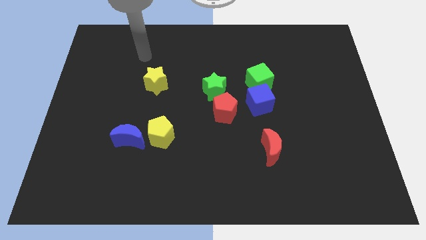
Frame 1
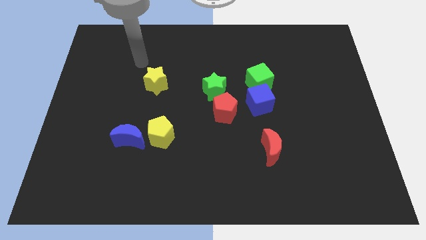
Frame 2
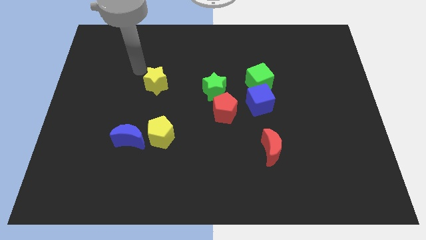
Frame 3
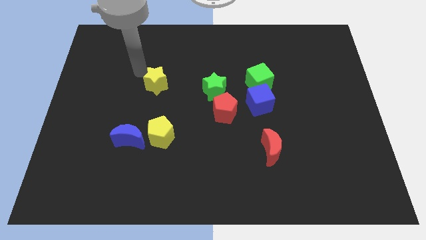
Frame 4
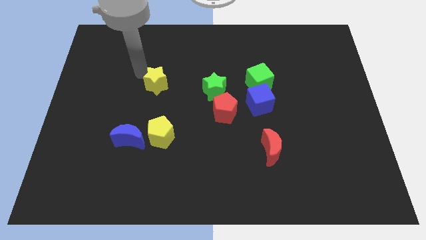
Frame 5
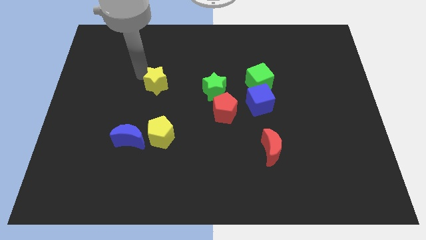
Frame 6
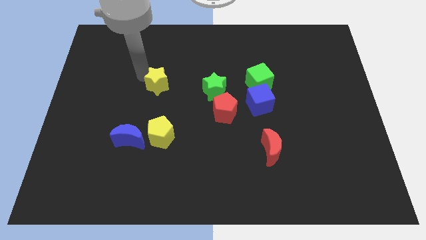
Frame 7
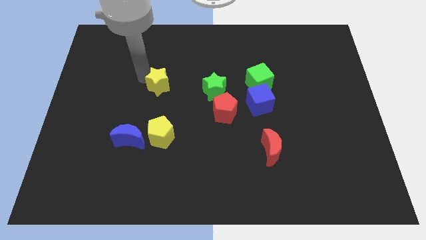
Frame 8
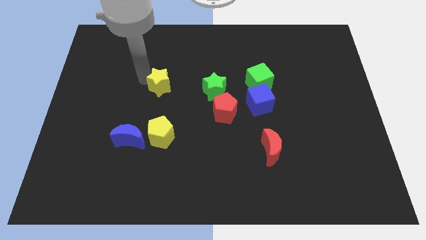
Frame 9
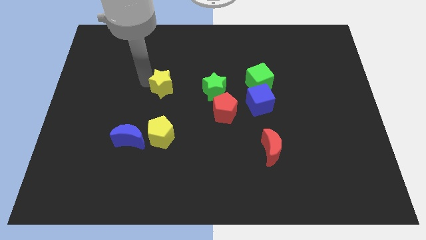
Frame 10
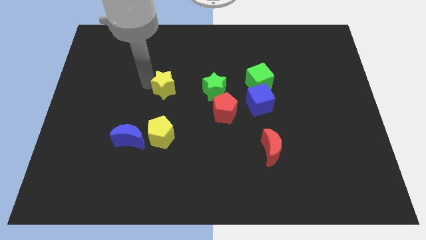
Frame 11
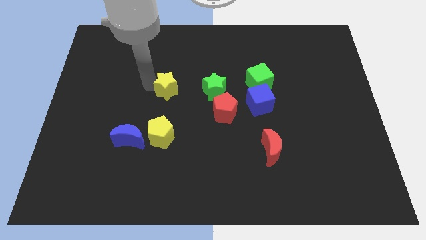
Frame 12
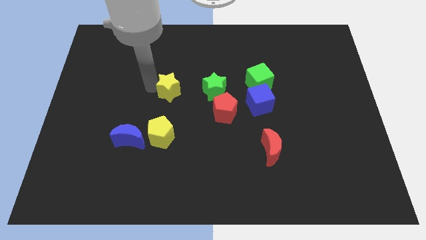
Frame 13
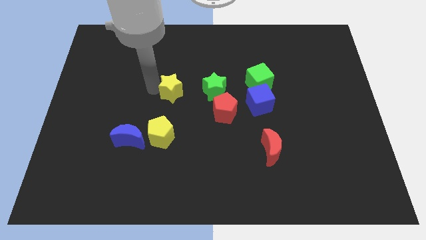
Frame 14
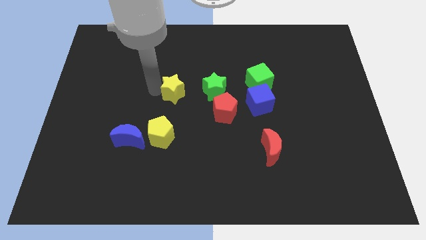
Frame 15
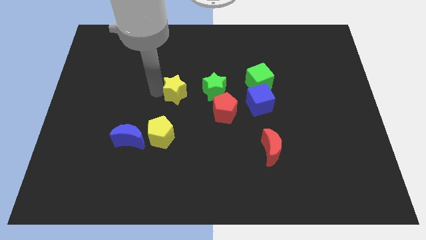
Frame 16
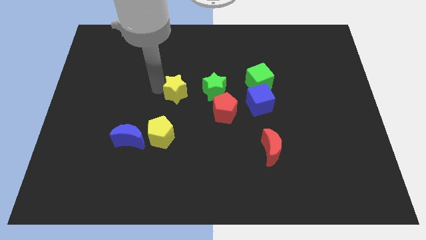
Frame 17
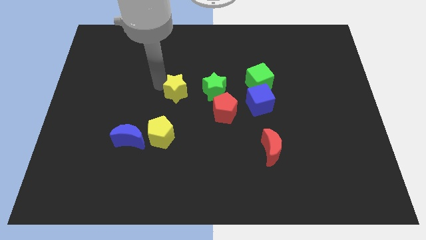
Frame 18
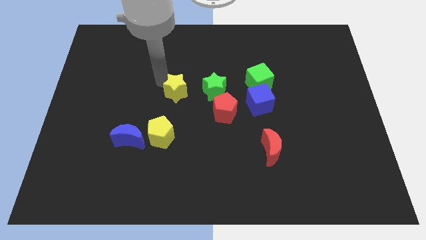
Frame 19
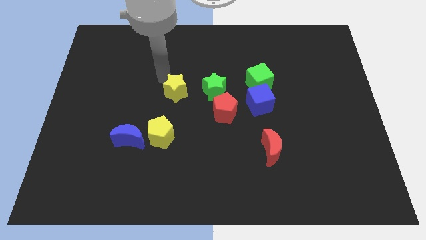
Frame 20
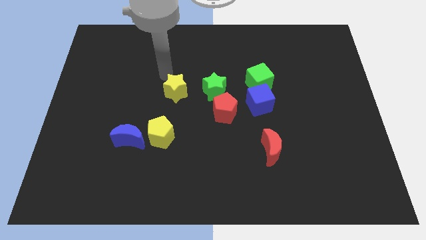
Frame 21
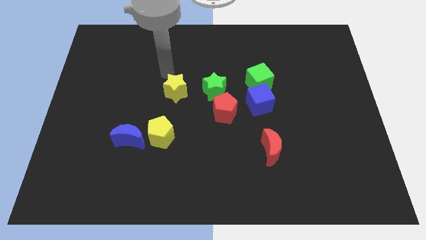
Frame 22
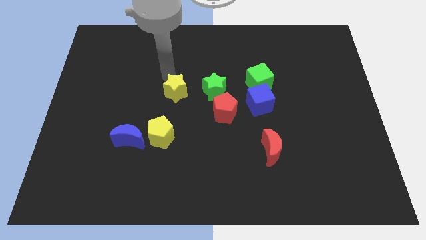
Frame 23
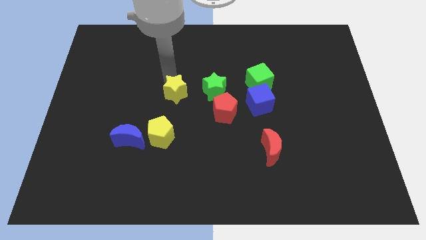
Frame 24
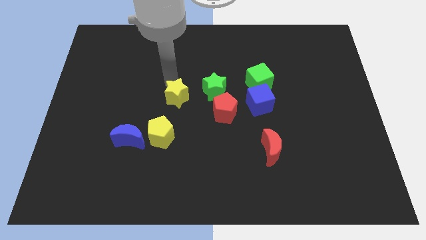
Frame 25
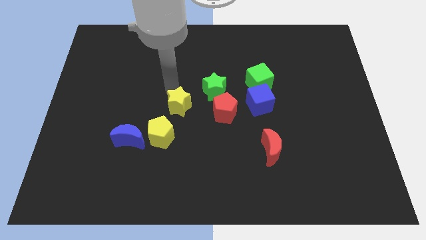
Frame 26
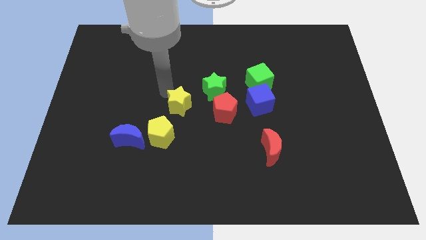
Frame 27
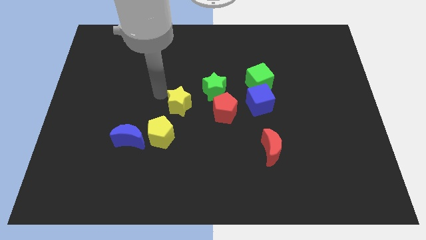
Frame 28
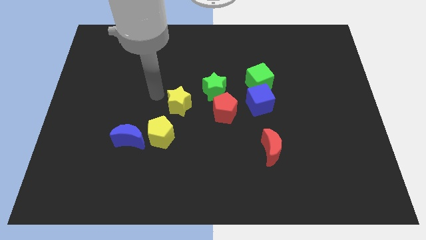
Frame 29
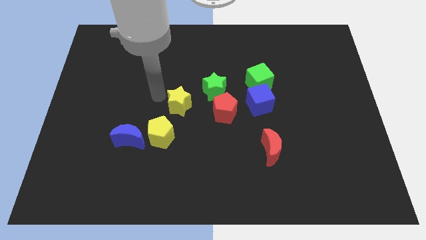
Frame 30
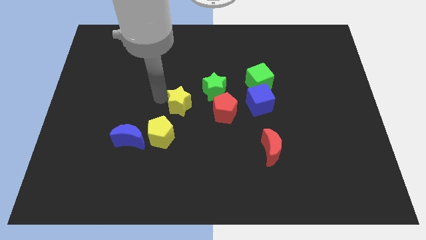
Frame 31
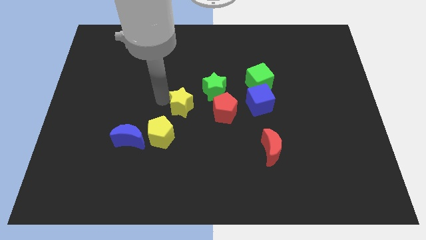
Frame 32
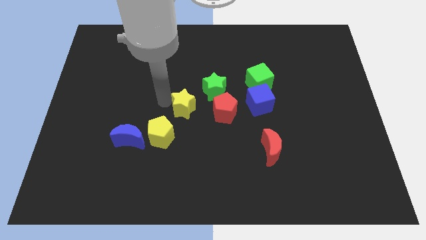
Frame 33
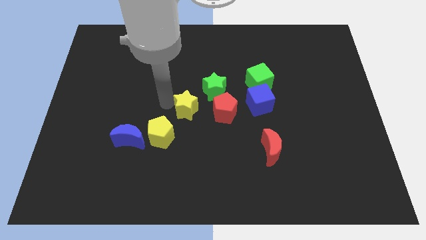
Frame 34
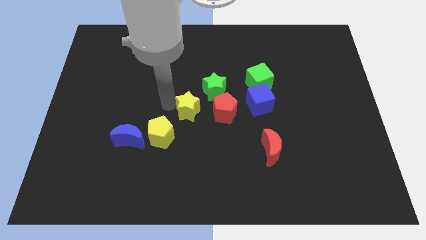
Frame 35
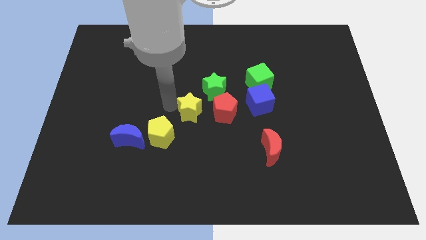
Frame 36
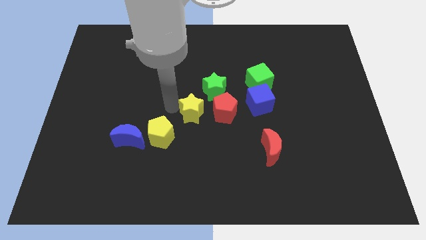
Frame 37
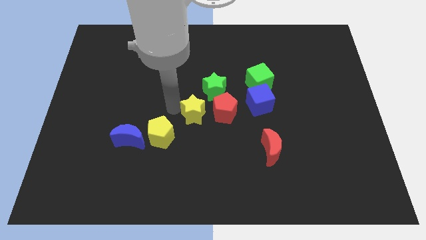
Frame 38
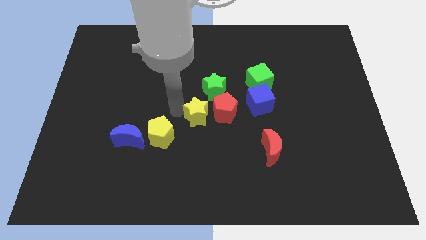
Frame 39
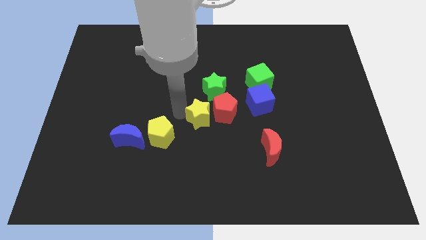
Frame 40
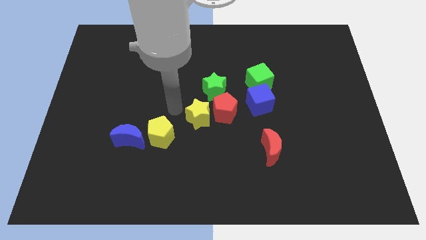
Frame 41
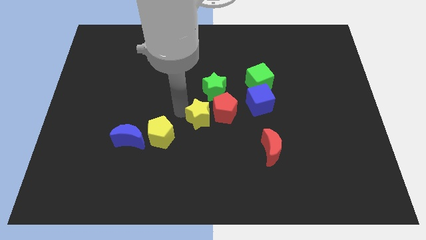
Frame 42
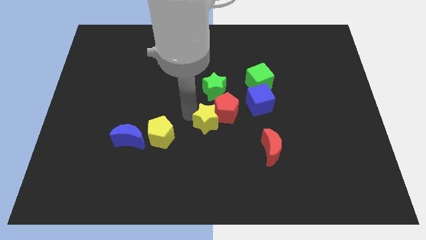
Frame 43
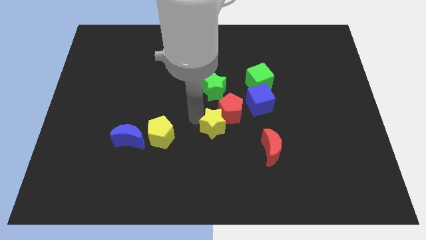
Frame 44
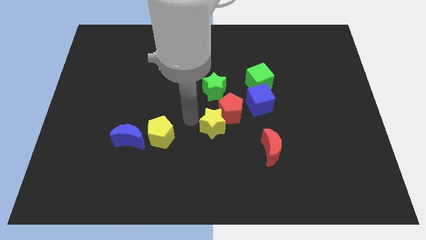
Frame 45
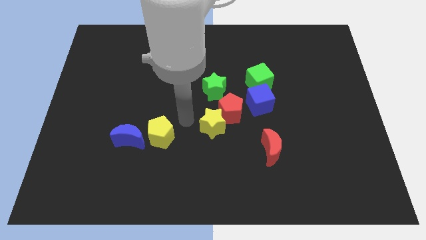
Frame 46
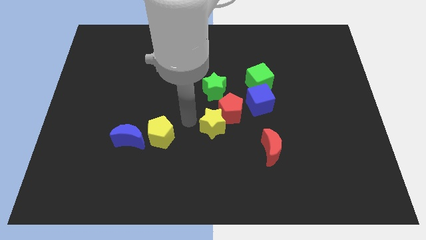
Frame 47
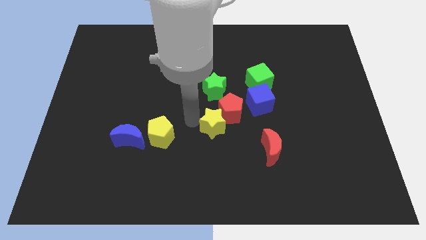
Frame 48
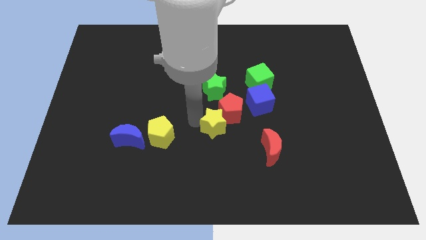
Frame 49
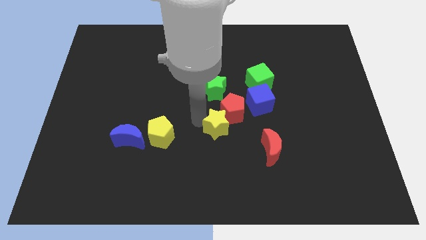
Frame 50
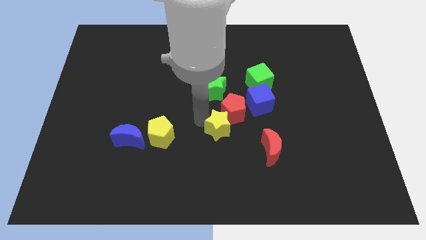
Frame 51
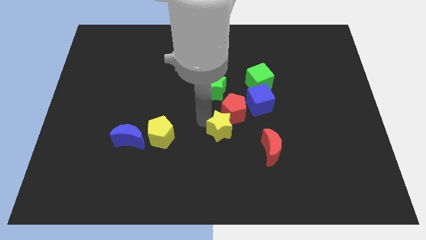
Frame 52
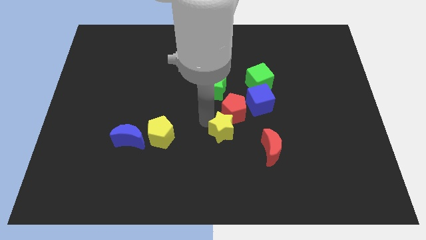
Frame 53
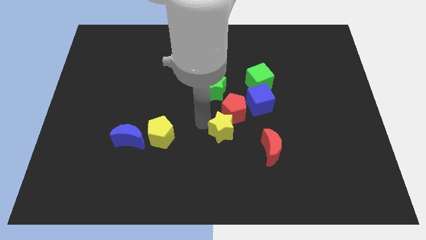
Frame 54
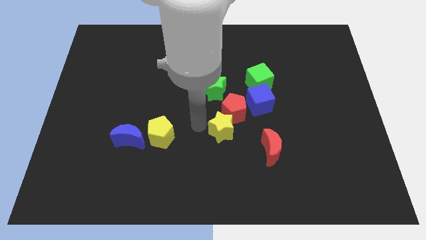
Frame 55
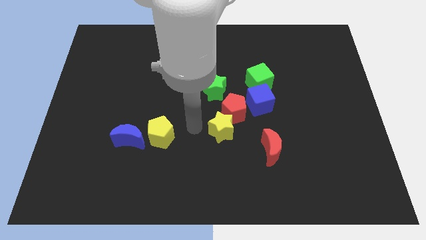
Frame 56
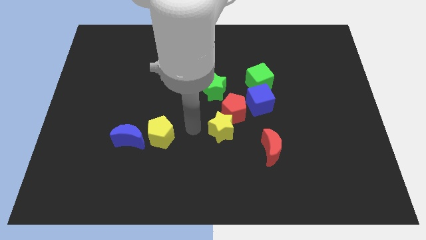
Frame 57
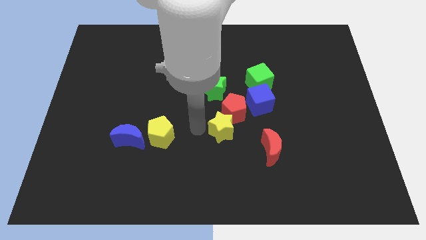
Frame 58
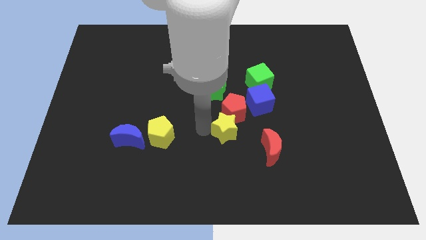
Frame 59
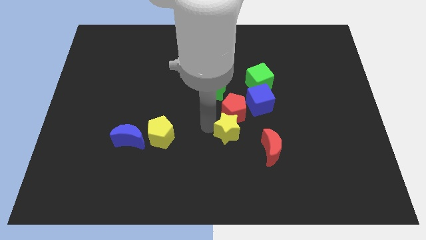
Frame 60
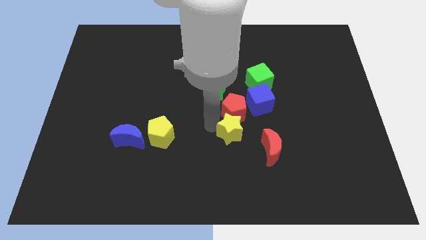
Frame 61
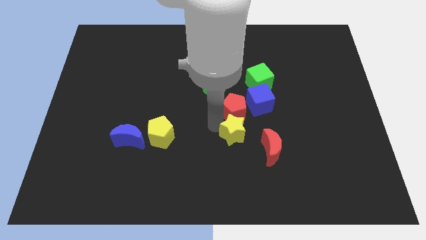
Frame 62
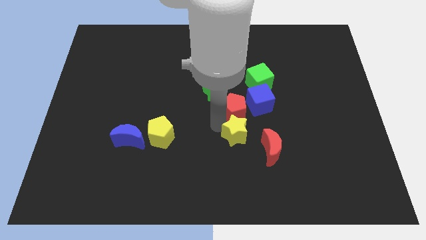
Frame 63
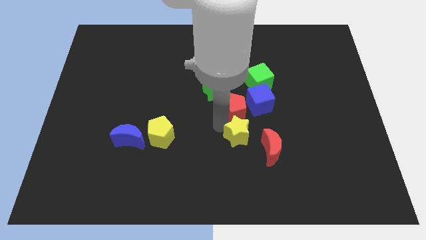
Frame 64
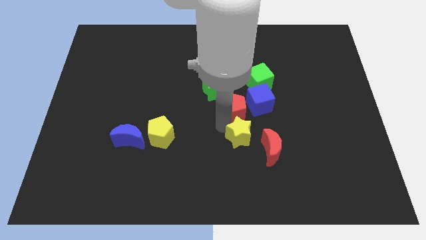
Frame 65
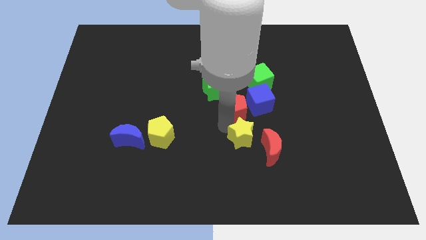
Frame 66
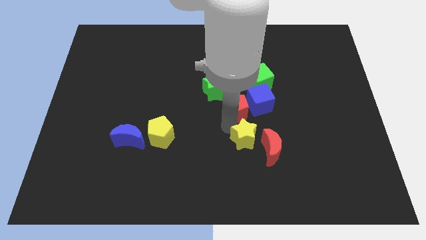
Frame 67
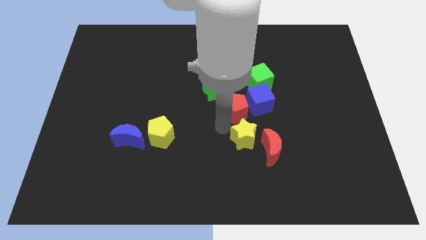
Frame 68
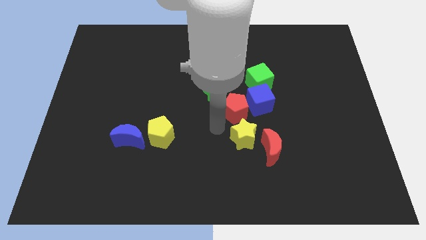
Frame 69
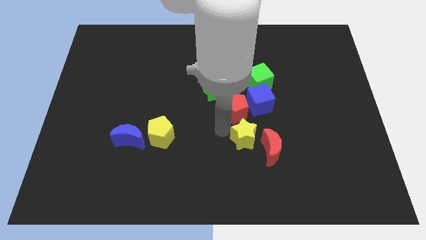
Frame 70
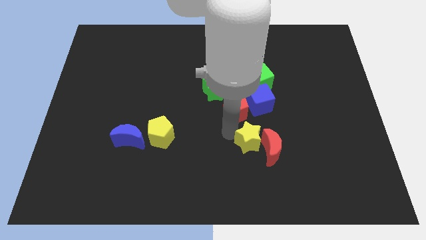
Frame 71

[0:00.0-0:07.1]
push the yellow star towards the red moon

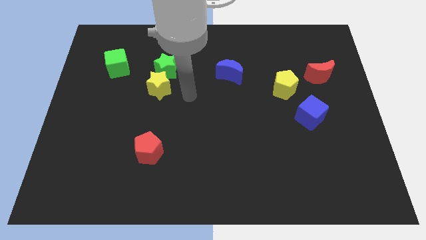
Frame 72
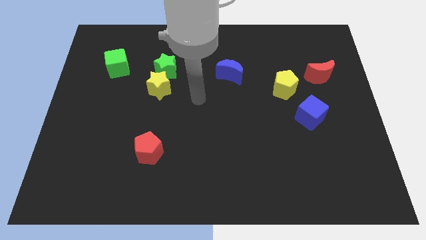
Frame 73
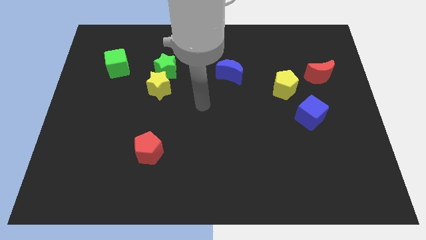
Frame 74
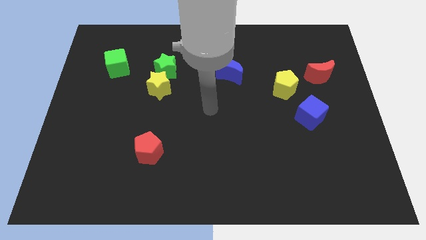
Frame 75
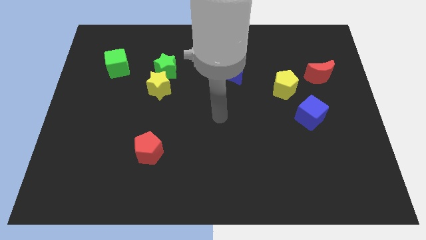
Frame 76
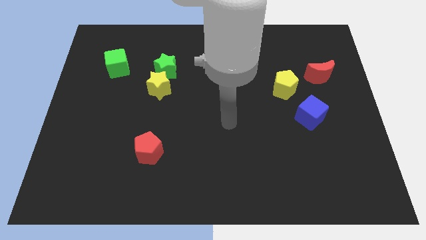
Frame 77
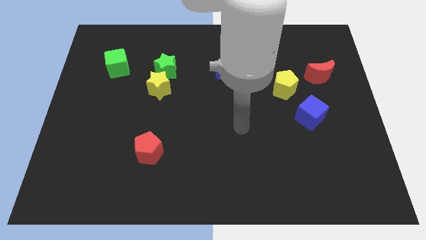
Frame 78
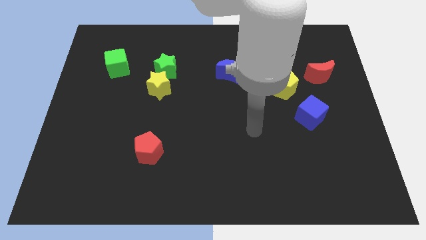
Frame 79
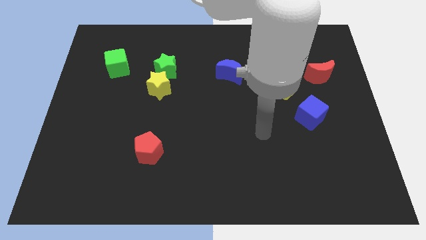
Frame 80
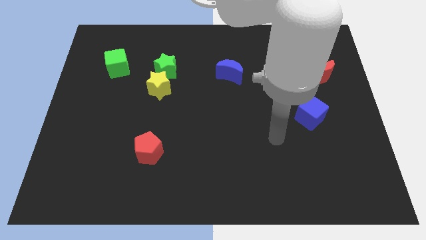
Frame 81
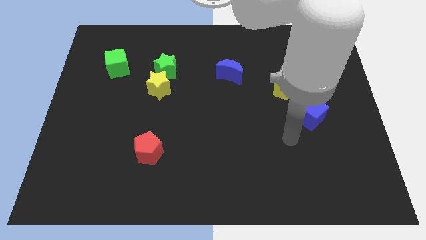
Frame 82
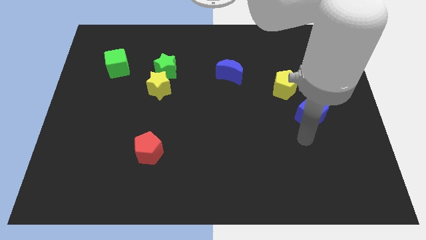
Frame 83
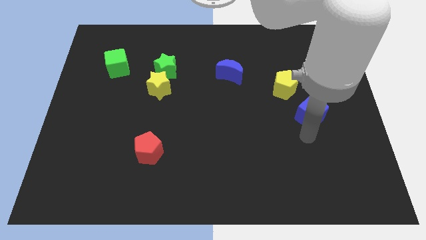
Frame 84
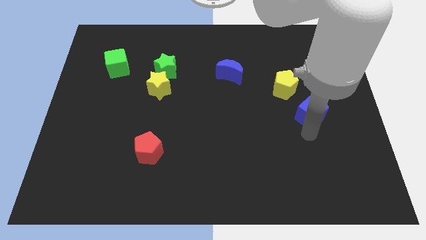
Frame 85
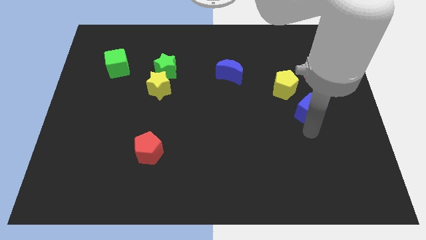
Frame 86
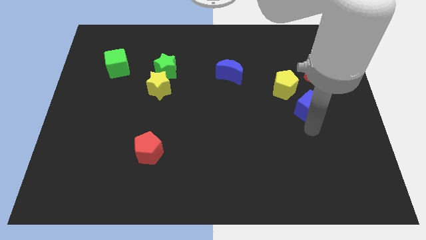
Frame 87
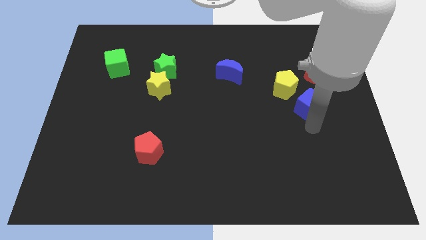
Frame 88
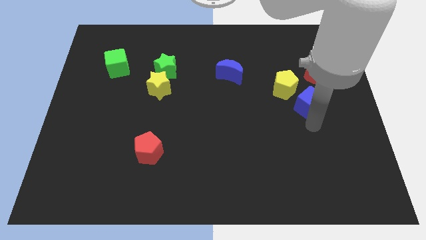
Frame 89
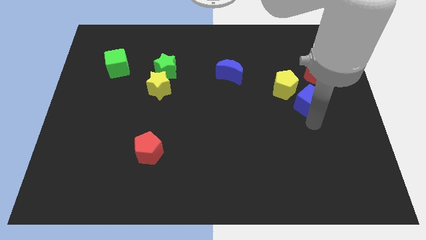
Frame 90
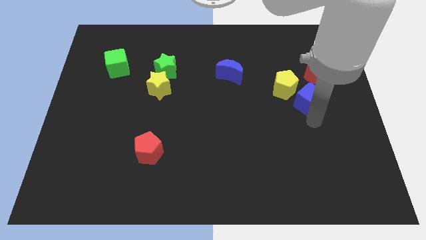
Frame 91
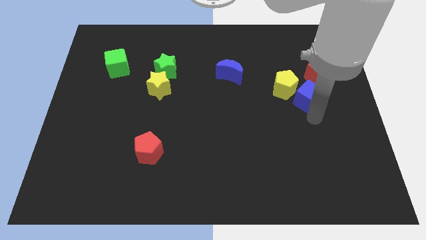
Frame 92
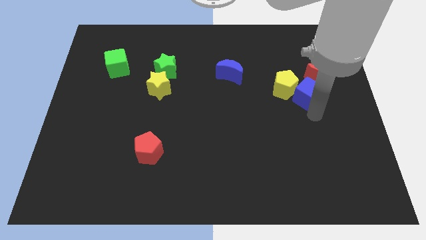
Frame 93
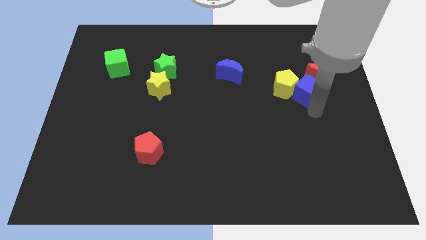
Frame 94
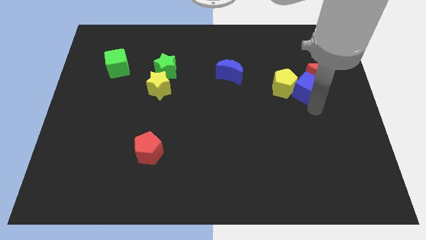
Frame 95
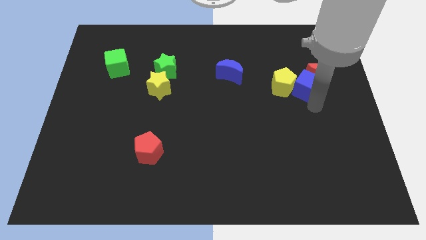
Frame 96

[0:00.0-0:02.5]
slide the blue cube close to the red moon
